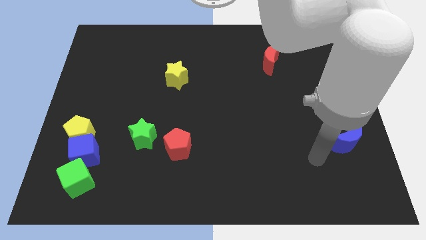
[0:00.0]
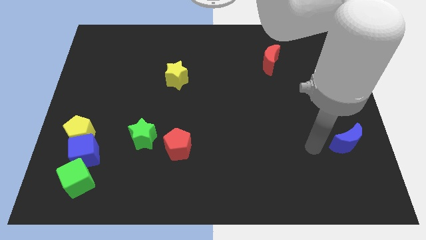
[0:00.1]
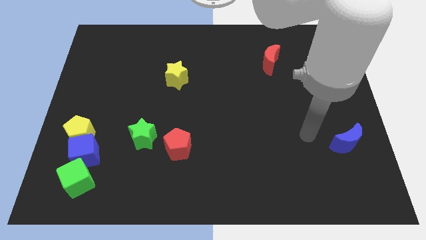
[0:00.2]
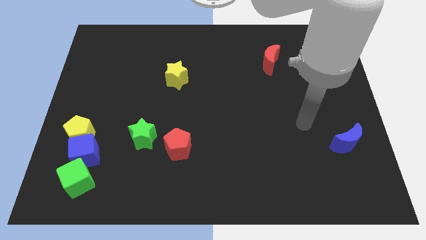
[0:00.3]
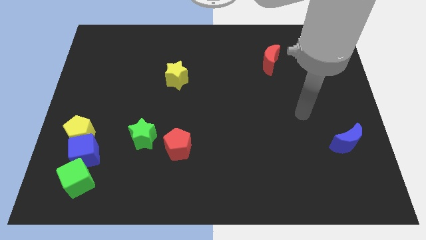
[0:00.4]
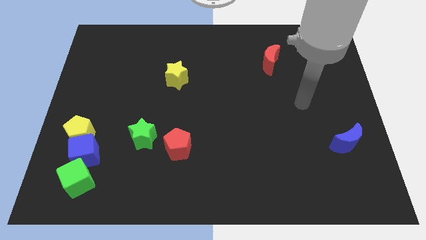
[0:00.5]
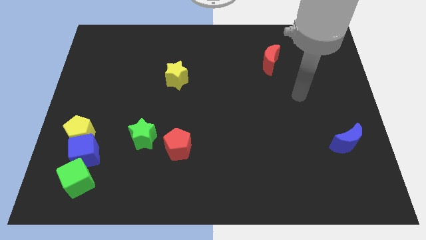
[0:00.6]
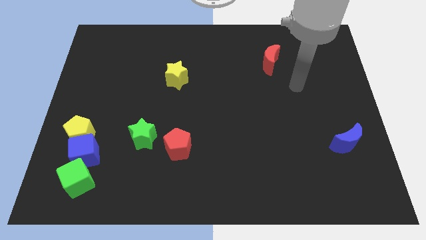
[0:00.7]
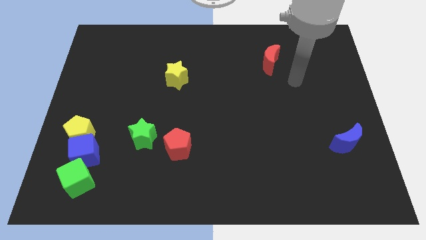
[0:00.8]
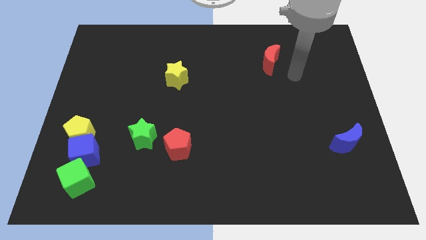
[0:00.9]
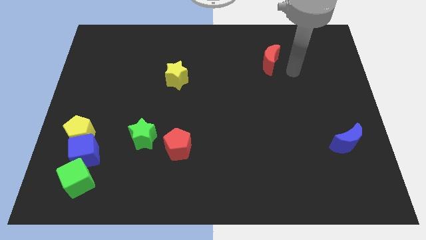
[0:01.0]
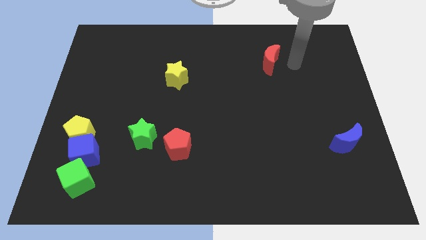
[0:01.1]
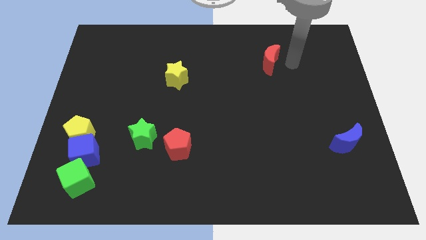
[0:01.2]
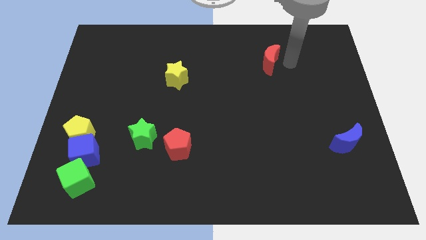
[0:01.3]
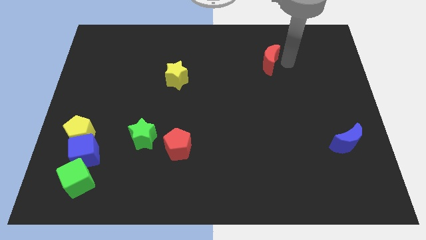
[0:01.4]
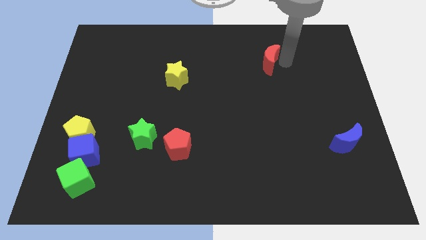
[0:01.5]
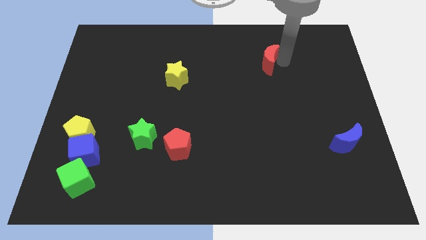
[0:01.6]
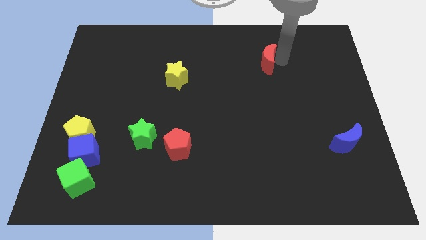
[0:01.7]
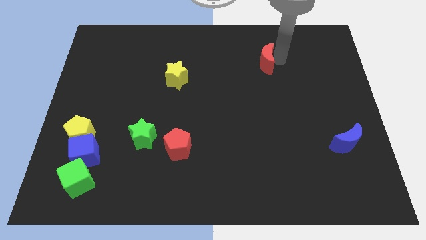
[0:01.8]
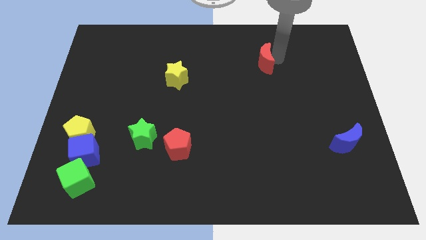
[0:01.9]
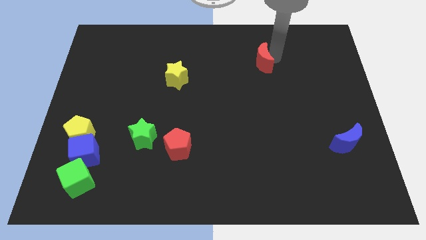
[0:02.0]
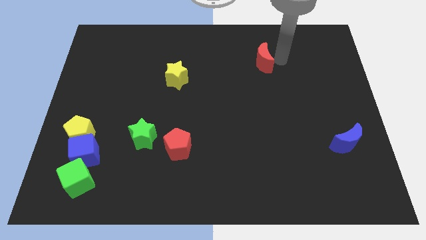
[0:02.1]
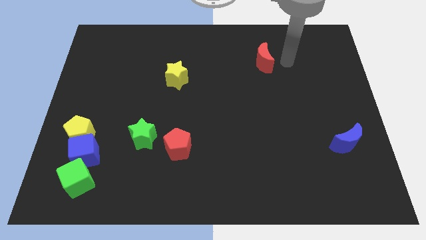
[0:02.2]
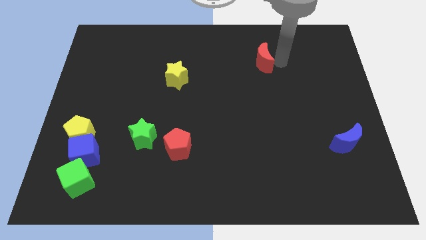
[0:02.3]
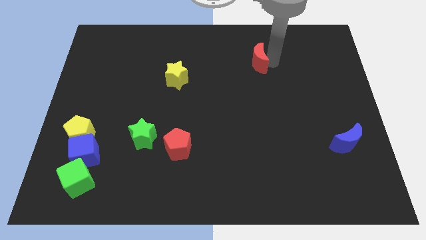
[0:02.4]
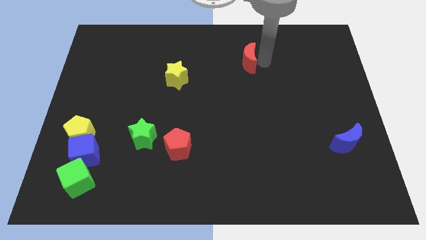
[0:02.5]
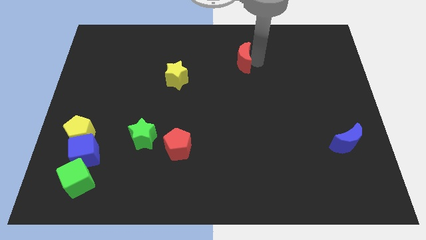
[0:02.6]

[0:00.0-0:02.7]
move the red moon a little bit to the left

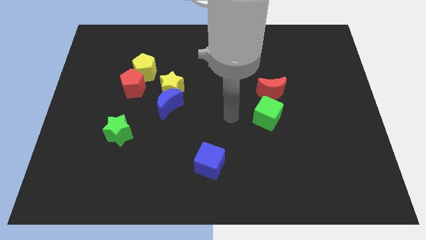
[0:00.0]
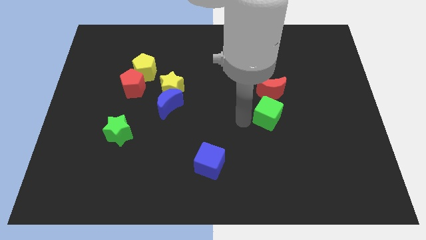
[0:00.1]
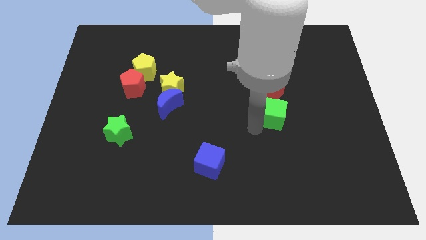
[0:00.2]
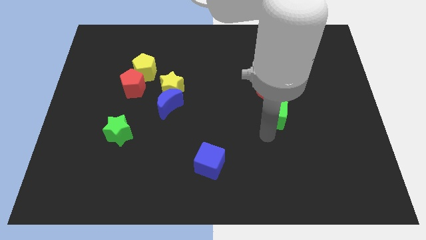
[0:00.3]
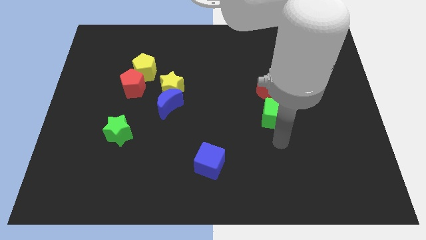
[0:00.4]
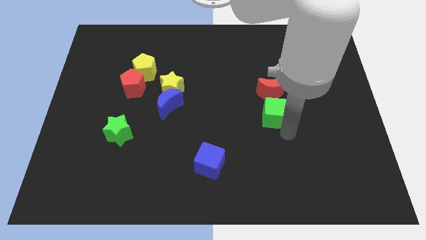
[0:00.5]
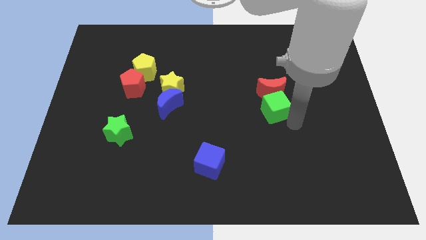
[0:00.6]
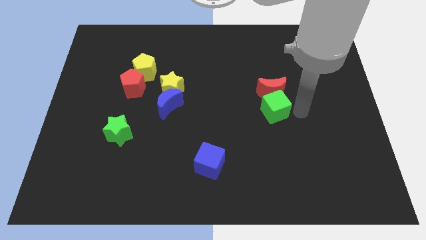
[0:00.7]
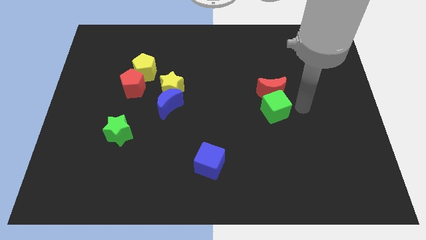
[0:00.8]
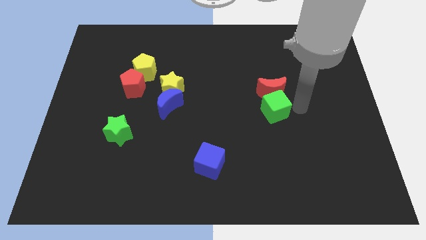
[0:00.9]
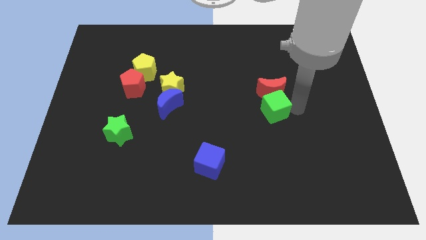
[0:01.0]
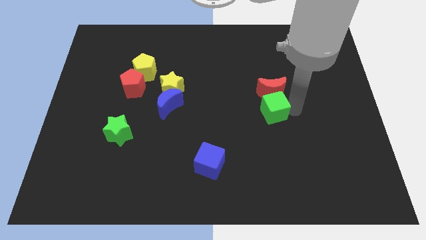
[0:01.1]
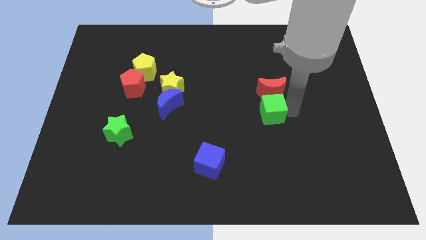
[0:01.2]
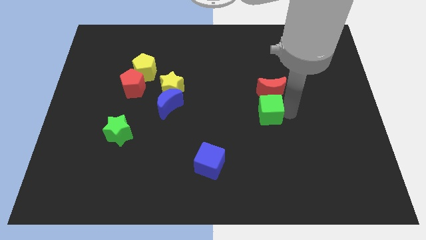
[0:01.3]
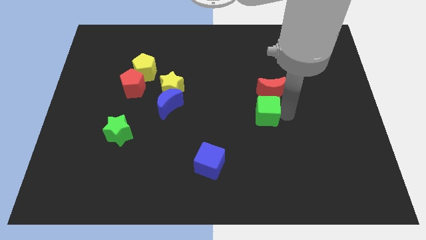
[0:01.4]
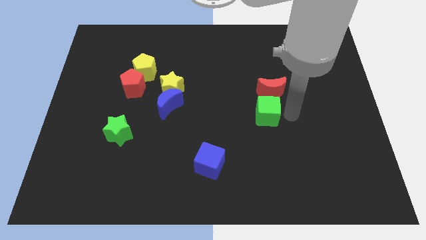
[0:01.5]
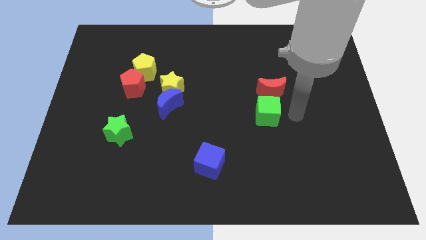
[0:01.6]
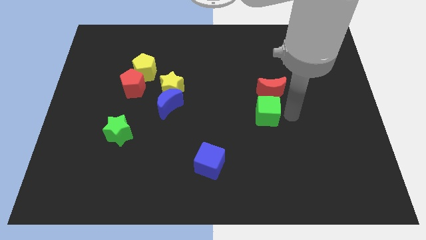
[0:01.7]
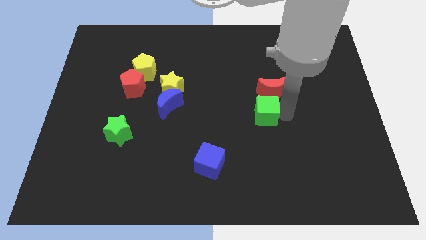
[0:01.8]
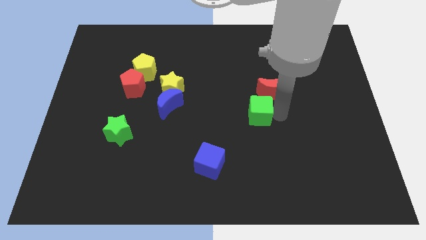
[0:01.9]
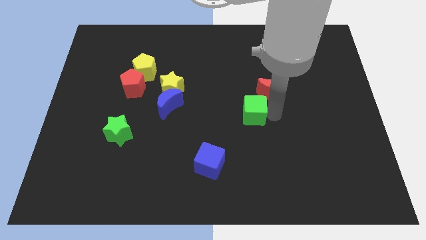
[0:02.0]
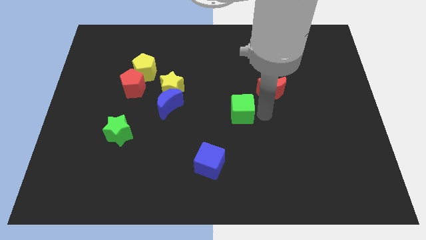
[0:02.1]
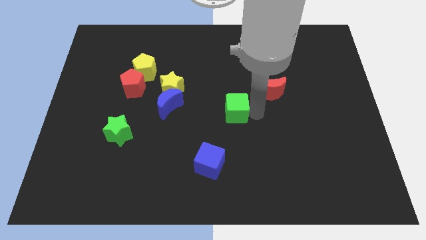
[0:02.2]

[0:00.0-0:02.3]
slightly slide the green cube left

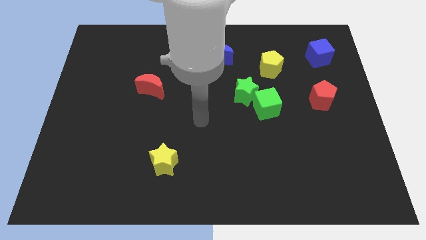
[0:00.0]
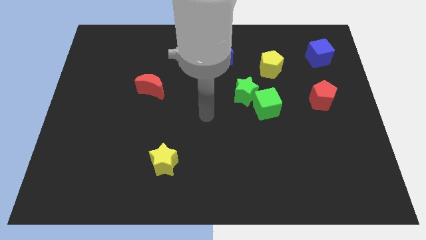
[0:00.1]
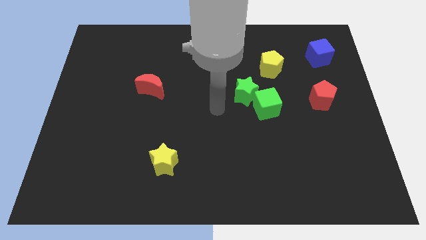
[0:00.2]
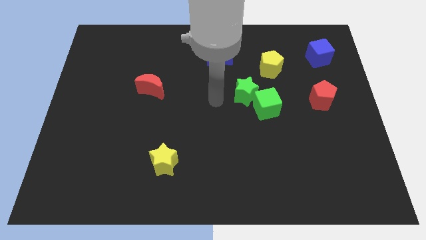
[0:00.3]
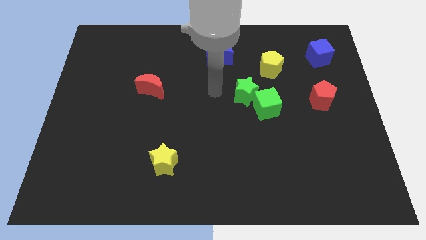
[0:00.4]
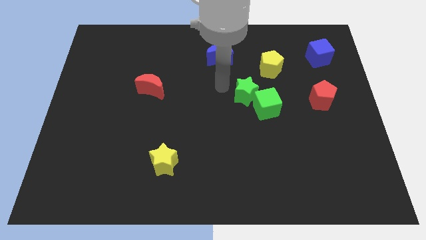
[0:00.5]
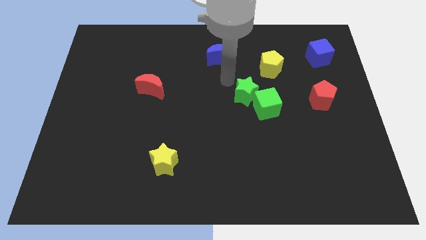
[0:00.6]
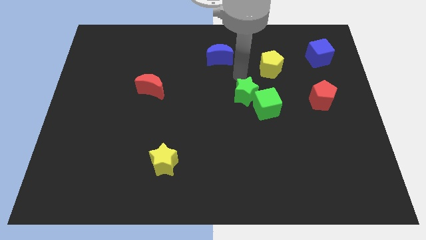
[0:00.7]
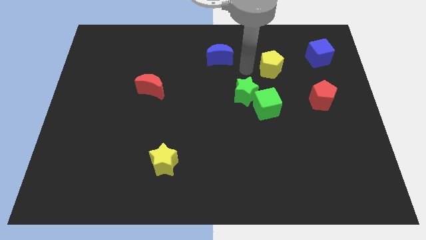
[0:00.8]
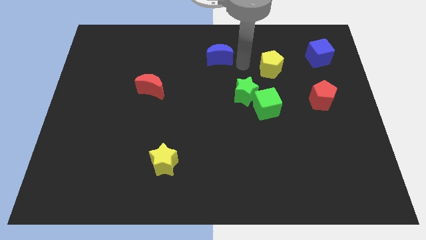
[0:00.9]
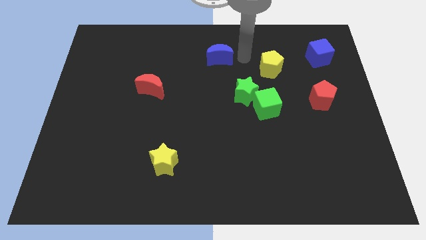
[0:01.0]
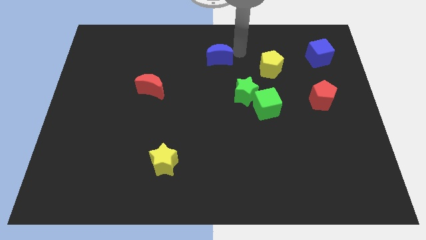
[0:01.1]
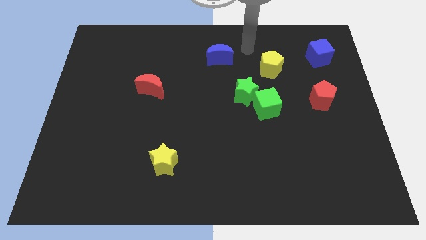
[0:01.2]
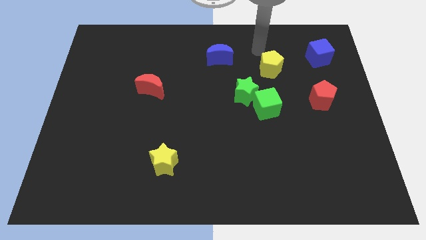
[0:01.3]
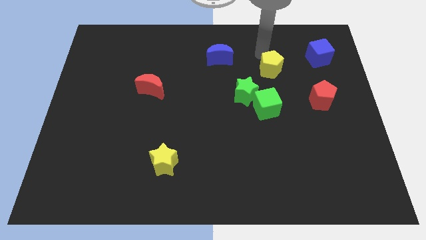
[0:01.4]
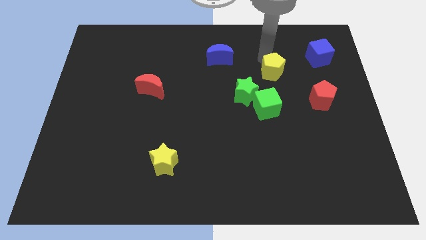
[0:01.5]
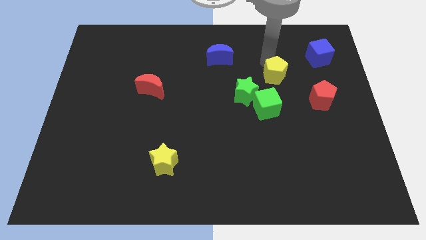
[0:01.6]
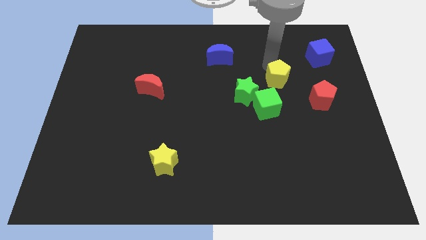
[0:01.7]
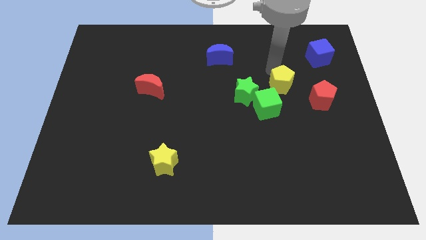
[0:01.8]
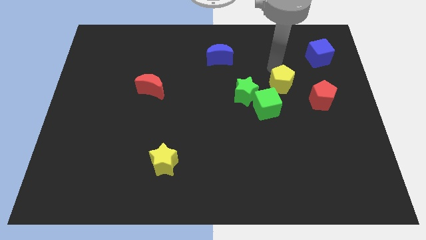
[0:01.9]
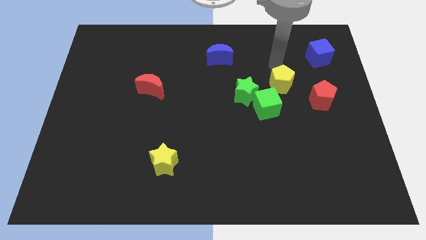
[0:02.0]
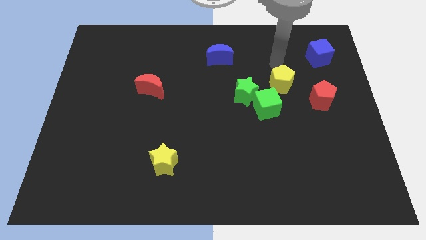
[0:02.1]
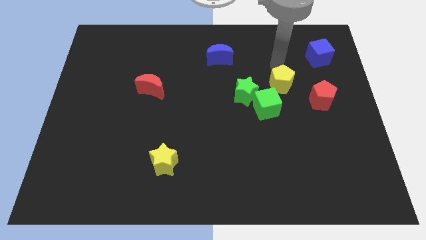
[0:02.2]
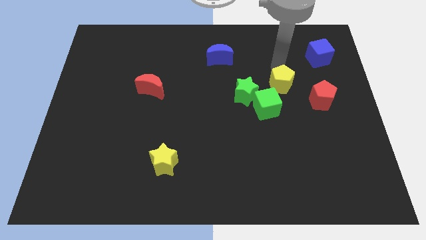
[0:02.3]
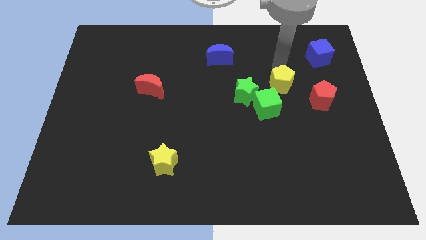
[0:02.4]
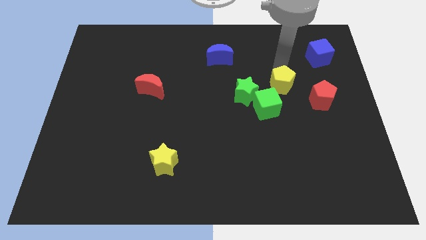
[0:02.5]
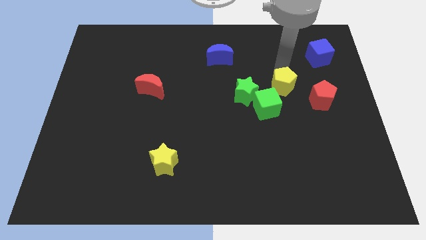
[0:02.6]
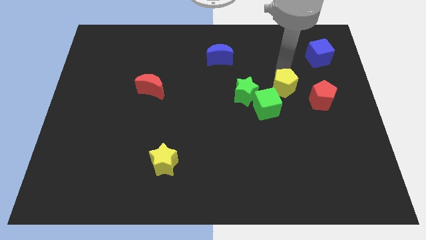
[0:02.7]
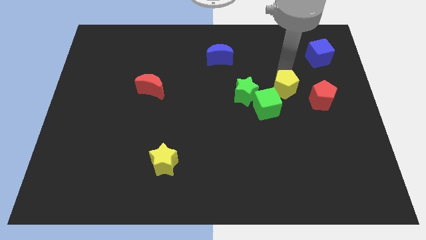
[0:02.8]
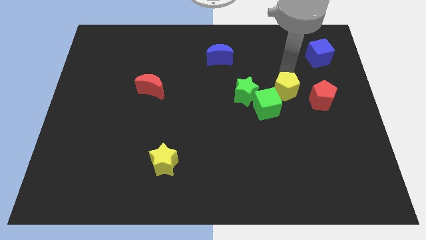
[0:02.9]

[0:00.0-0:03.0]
push the yellow pentagon downwards a bit

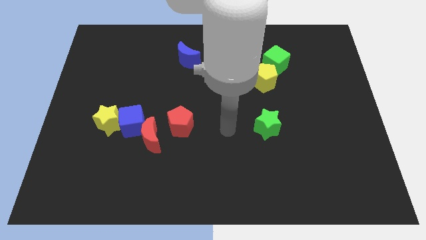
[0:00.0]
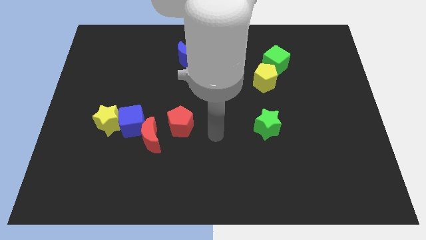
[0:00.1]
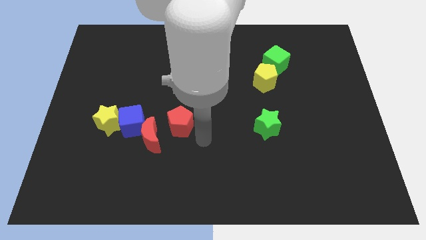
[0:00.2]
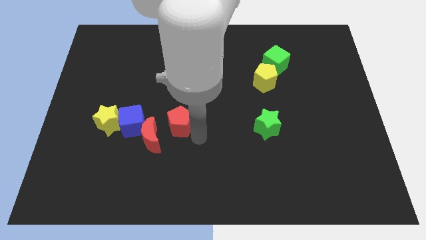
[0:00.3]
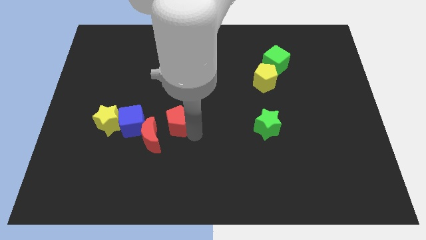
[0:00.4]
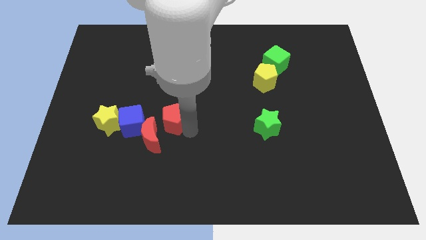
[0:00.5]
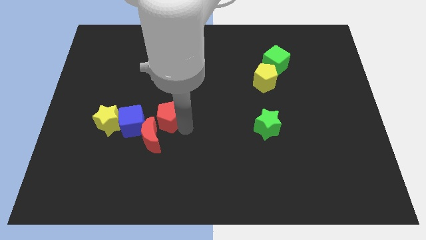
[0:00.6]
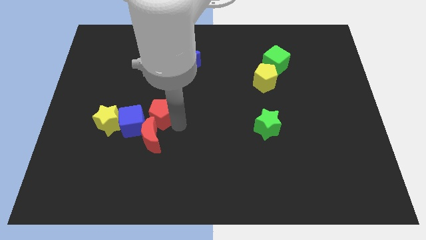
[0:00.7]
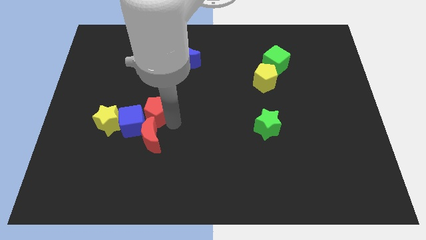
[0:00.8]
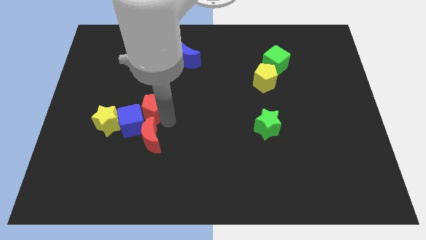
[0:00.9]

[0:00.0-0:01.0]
push the red pentagon a little bit upwards and then left
